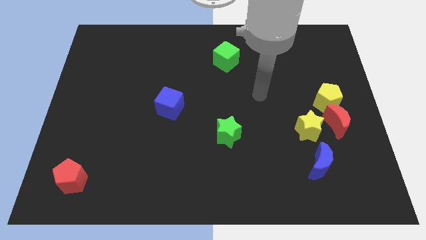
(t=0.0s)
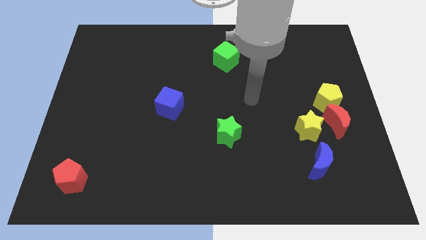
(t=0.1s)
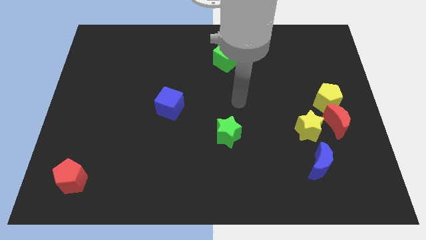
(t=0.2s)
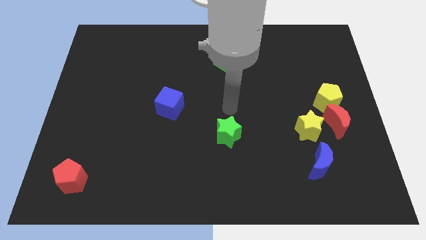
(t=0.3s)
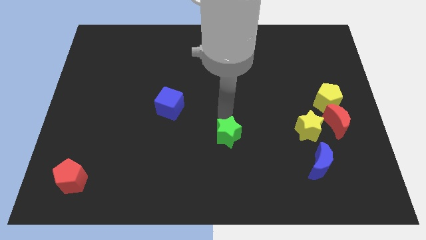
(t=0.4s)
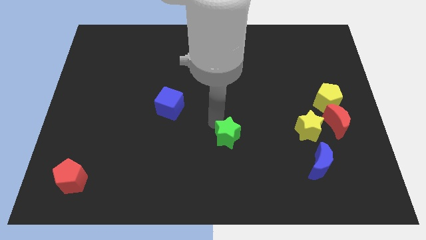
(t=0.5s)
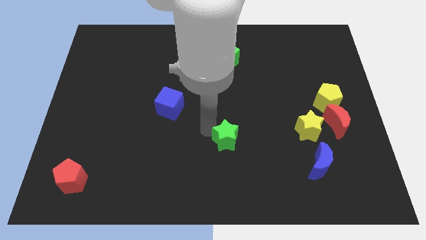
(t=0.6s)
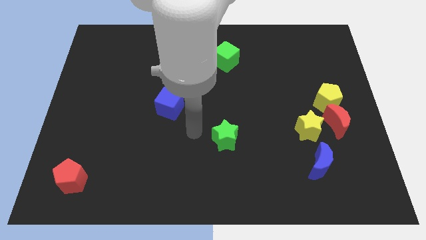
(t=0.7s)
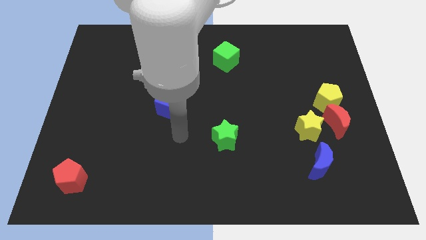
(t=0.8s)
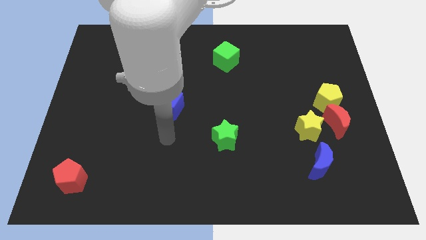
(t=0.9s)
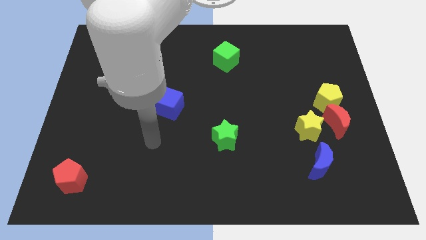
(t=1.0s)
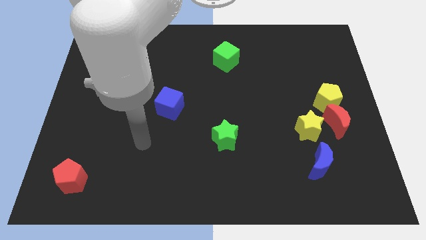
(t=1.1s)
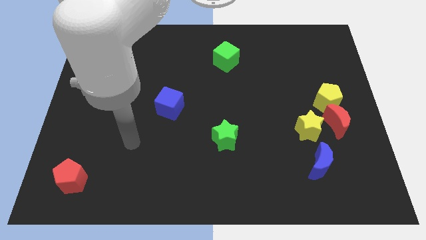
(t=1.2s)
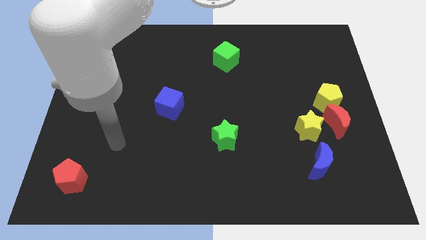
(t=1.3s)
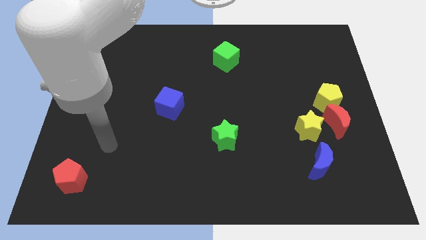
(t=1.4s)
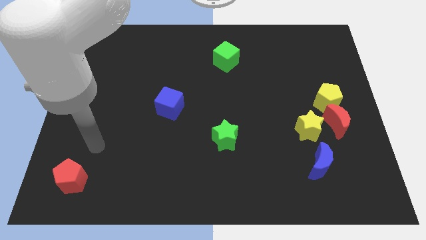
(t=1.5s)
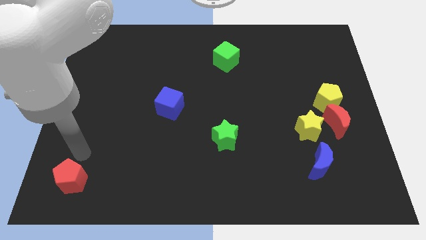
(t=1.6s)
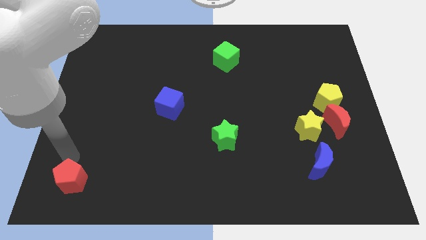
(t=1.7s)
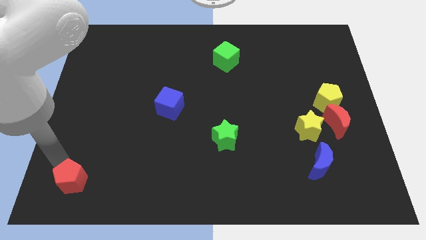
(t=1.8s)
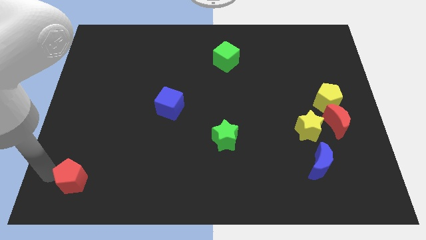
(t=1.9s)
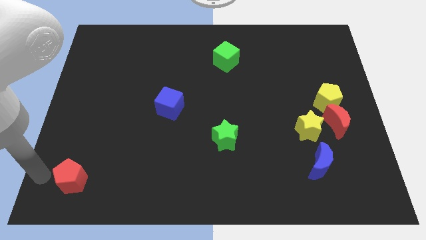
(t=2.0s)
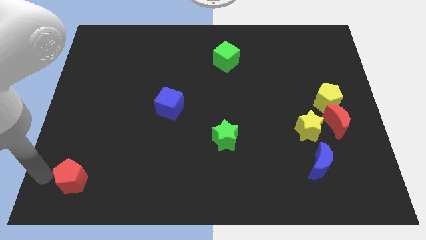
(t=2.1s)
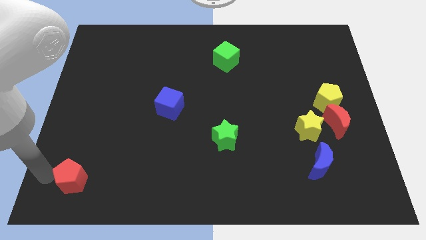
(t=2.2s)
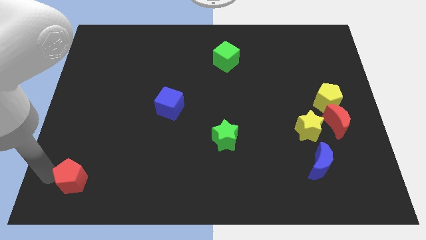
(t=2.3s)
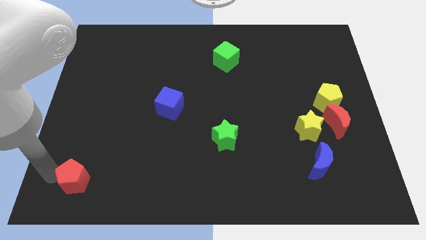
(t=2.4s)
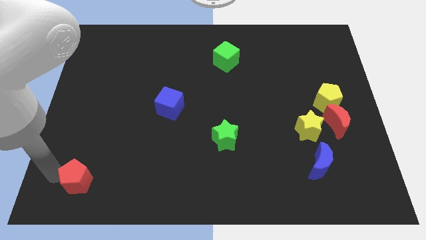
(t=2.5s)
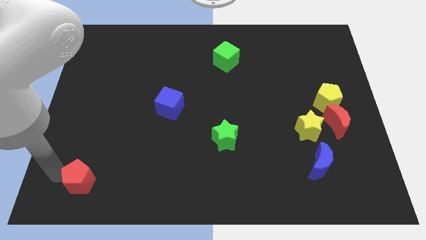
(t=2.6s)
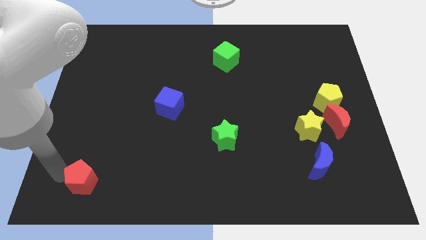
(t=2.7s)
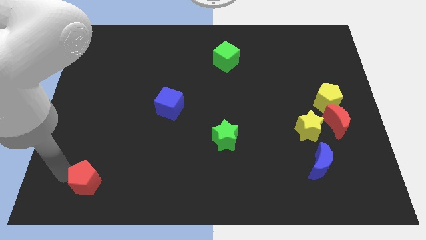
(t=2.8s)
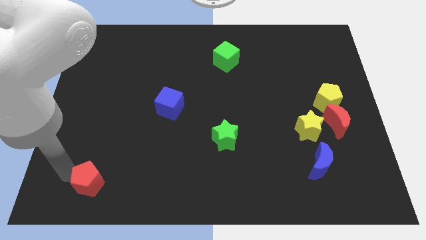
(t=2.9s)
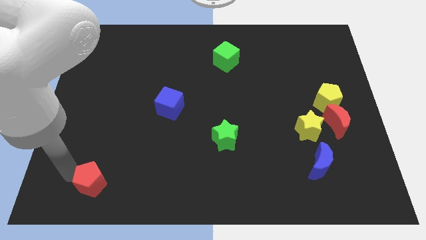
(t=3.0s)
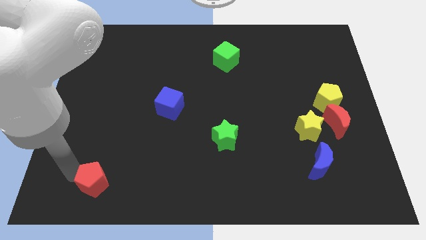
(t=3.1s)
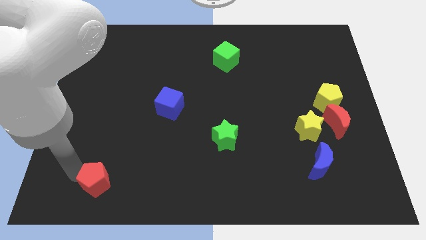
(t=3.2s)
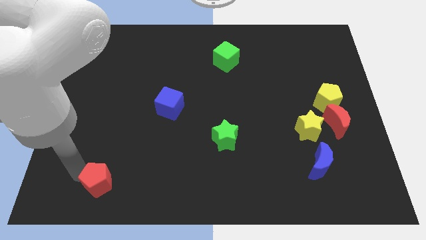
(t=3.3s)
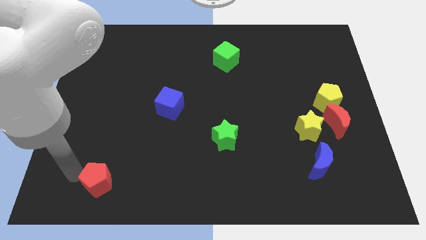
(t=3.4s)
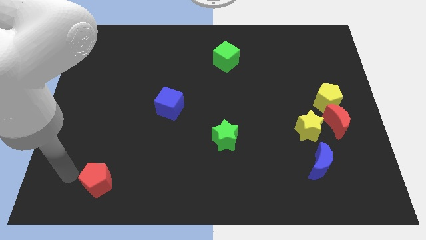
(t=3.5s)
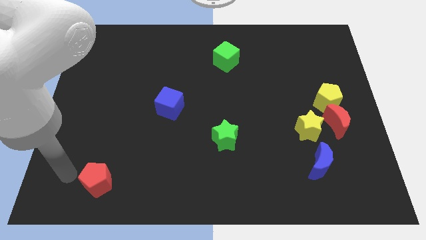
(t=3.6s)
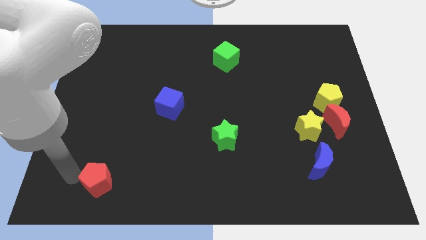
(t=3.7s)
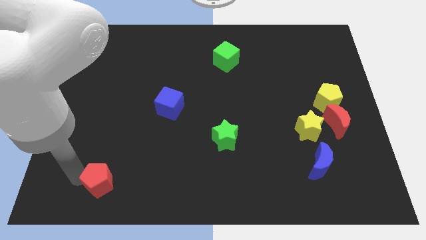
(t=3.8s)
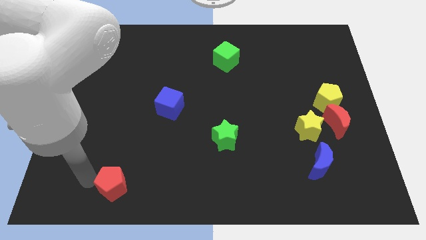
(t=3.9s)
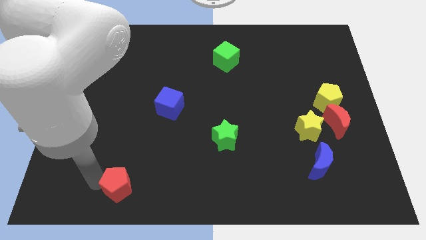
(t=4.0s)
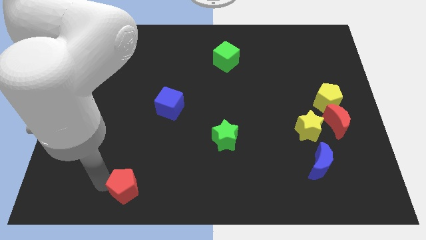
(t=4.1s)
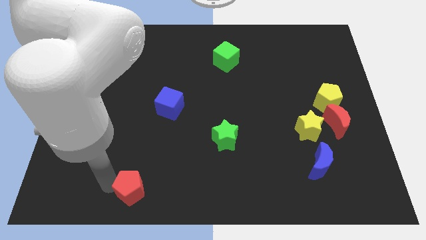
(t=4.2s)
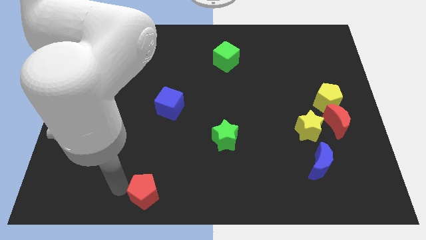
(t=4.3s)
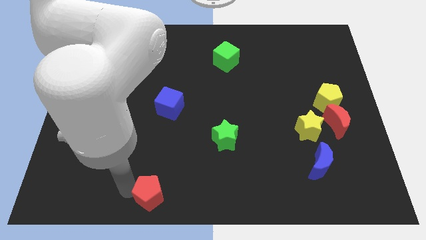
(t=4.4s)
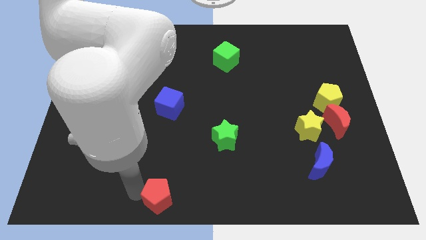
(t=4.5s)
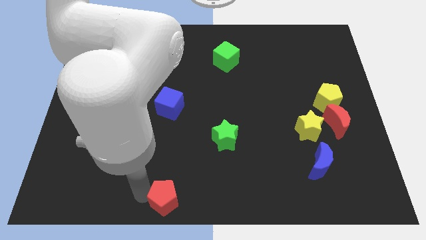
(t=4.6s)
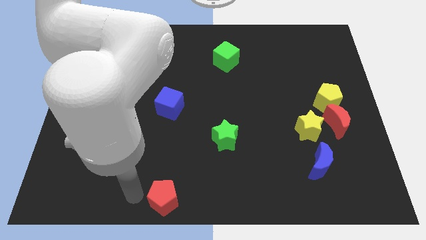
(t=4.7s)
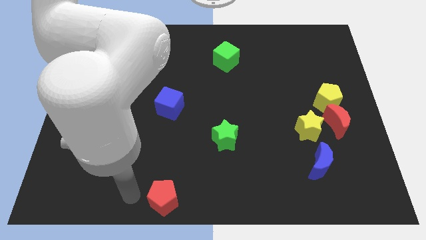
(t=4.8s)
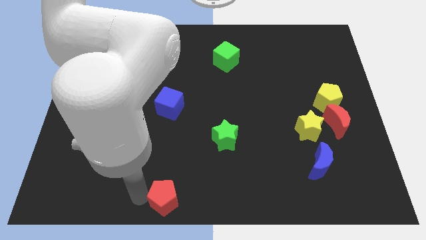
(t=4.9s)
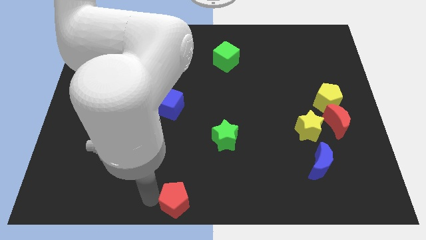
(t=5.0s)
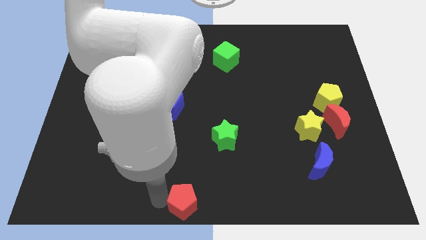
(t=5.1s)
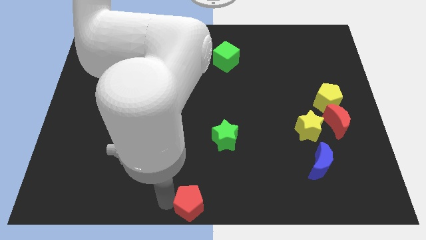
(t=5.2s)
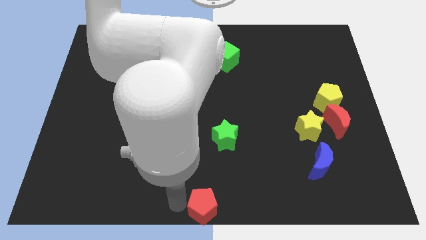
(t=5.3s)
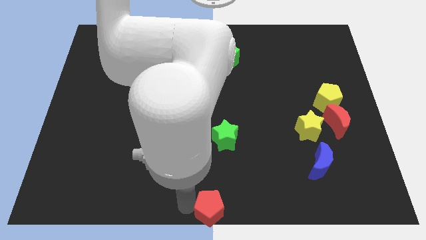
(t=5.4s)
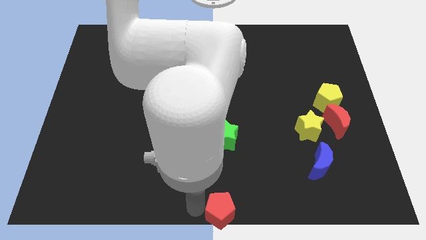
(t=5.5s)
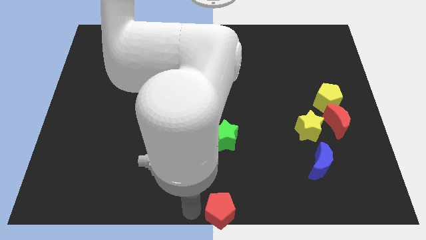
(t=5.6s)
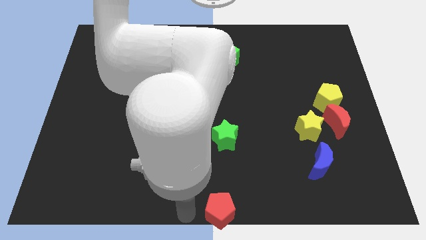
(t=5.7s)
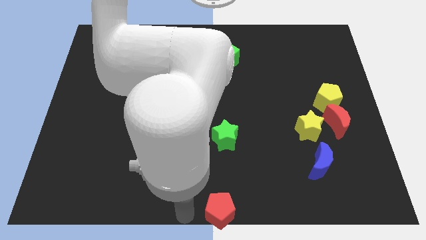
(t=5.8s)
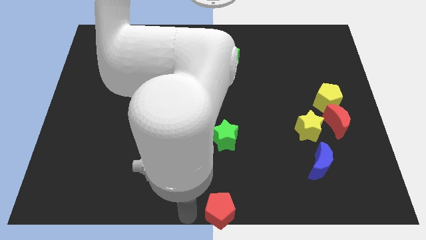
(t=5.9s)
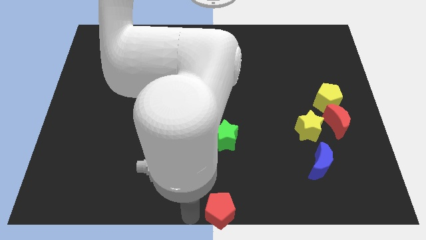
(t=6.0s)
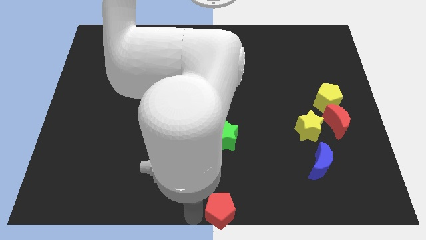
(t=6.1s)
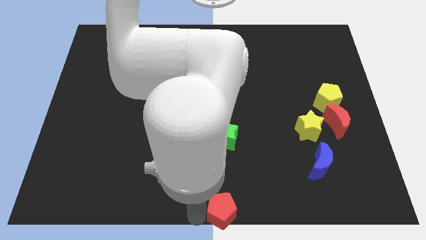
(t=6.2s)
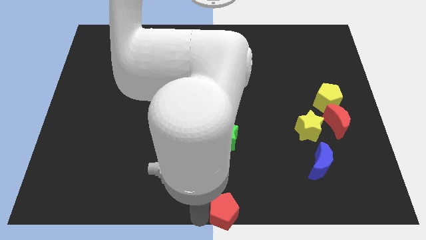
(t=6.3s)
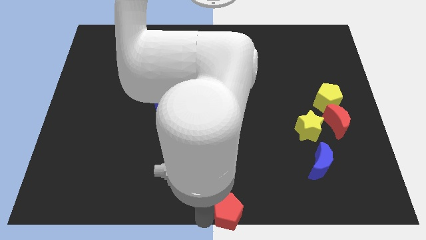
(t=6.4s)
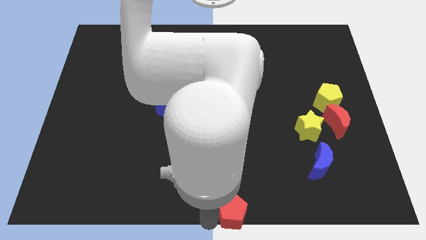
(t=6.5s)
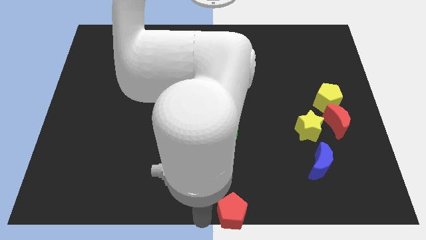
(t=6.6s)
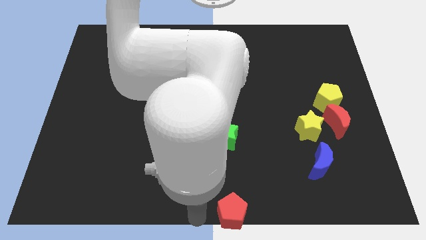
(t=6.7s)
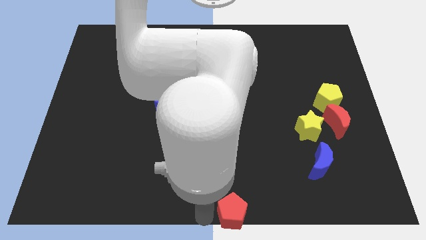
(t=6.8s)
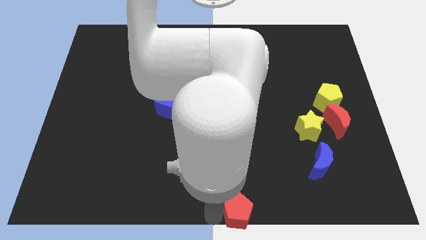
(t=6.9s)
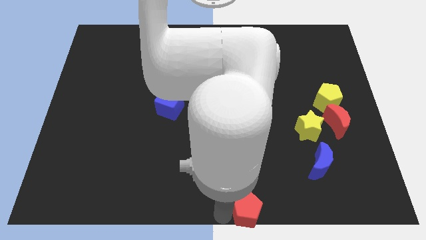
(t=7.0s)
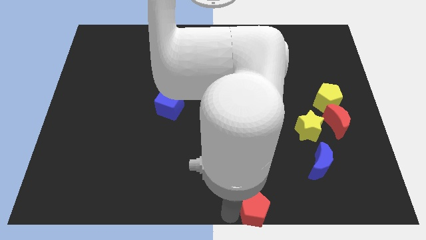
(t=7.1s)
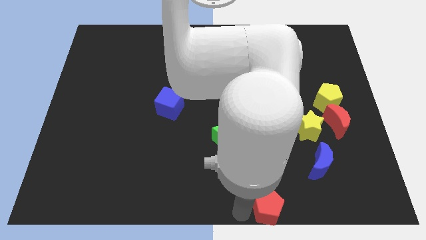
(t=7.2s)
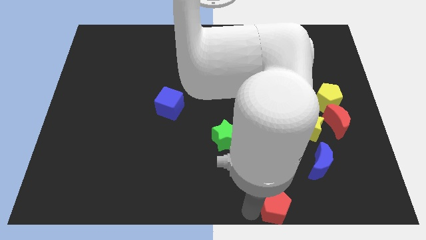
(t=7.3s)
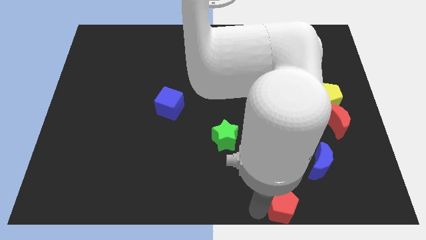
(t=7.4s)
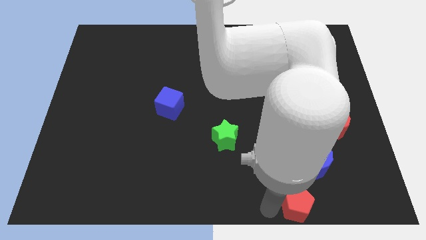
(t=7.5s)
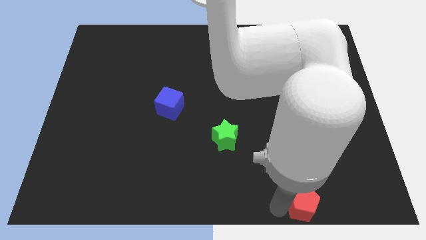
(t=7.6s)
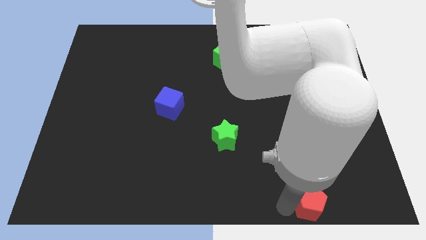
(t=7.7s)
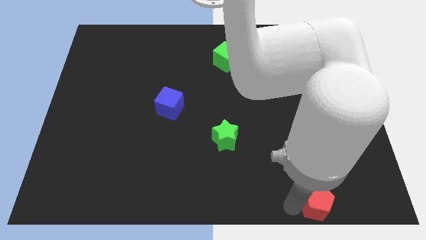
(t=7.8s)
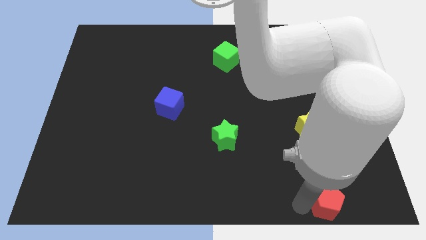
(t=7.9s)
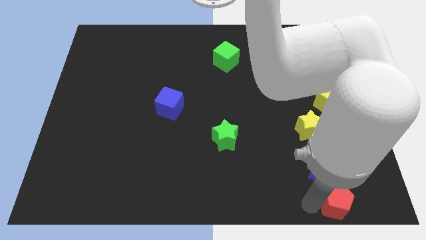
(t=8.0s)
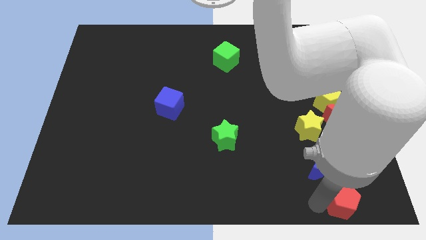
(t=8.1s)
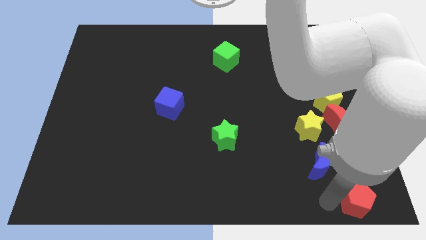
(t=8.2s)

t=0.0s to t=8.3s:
slide the red pentagon to the bottom right corner
